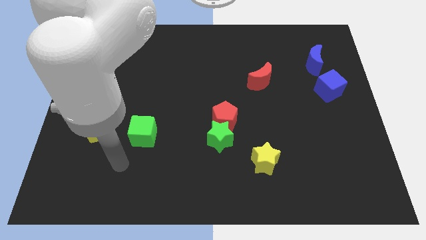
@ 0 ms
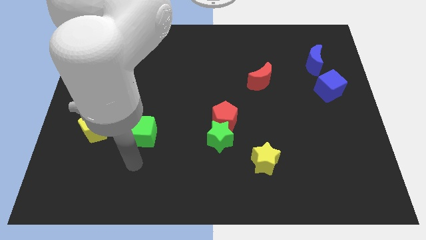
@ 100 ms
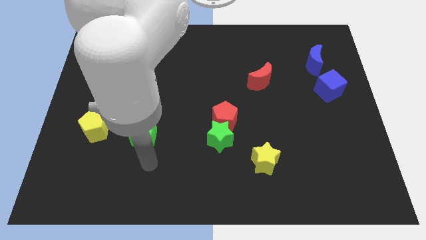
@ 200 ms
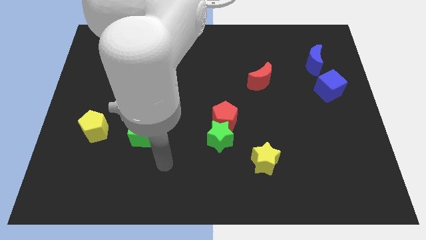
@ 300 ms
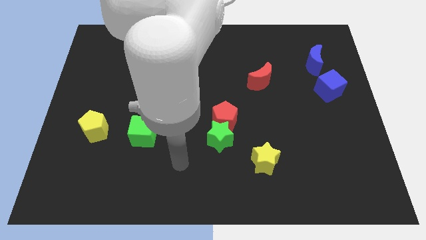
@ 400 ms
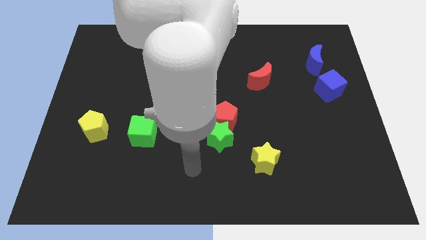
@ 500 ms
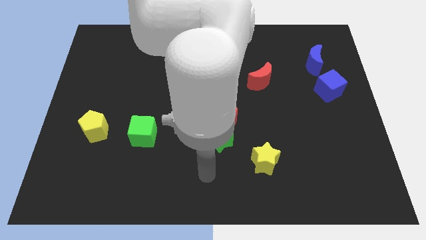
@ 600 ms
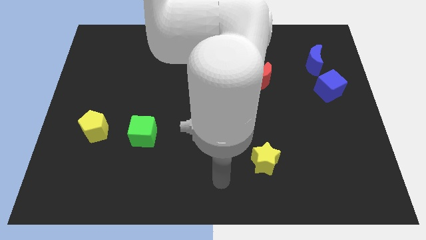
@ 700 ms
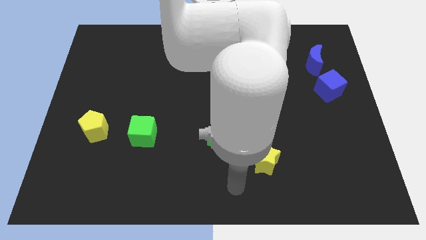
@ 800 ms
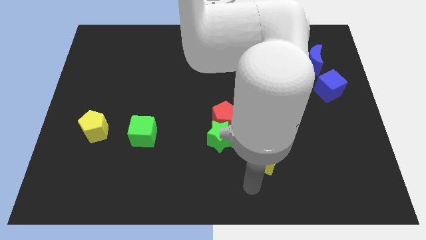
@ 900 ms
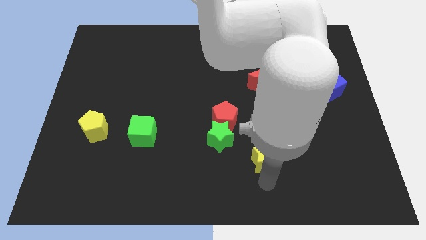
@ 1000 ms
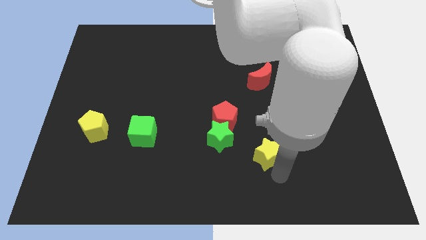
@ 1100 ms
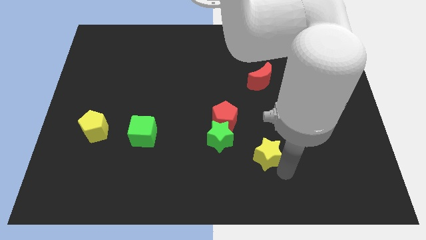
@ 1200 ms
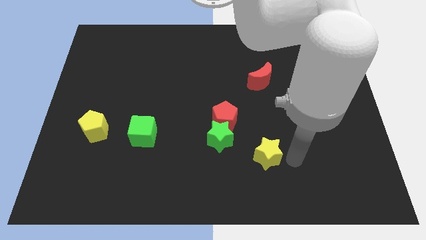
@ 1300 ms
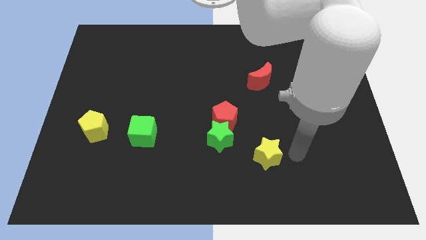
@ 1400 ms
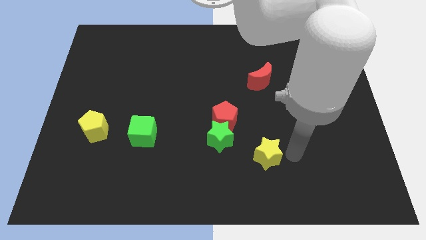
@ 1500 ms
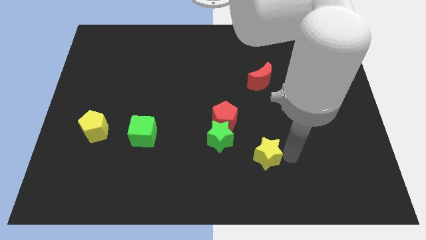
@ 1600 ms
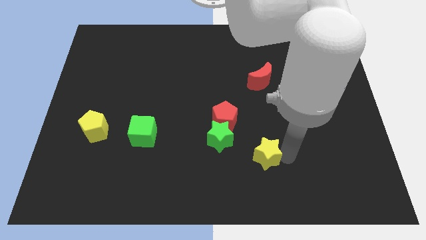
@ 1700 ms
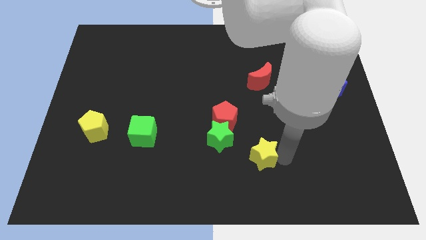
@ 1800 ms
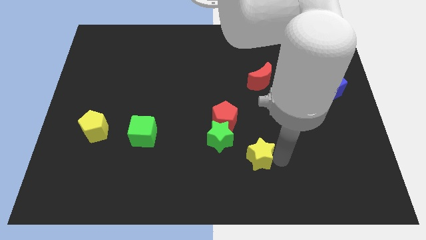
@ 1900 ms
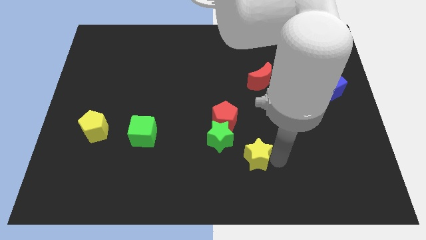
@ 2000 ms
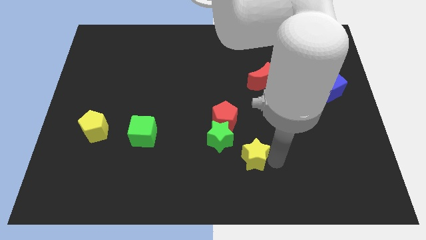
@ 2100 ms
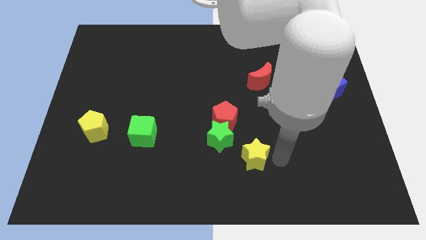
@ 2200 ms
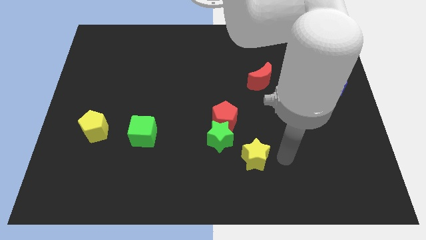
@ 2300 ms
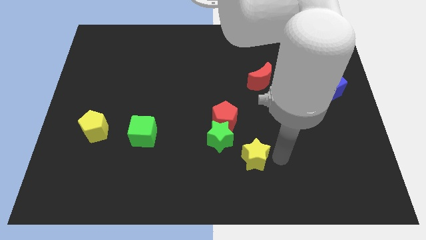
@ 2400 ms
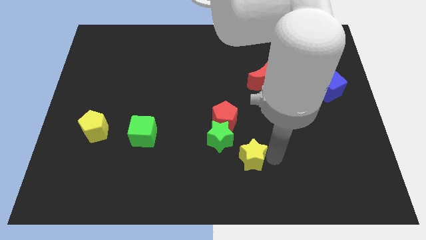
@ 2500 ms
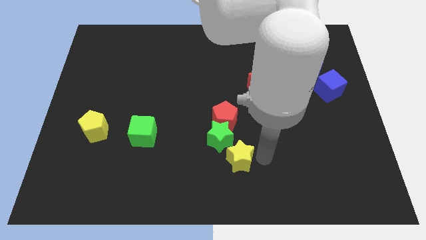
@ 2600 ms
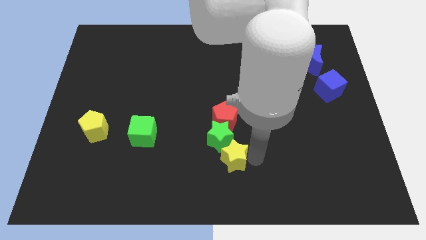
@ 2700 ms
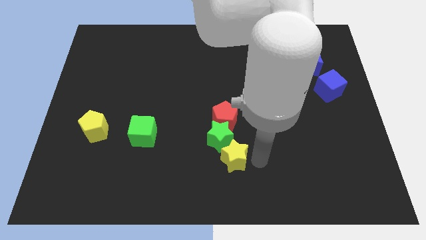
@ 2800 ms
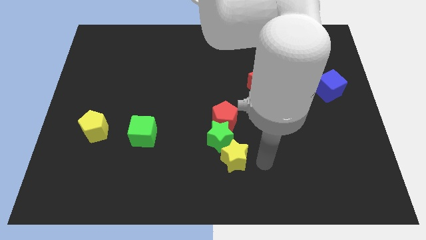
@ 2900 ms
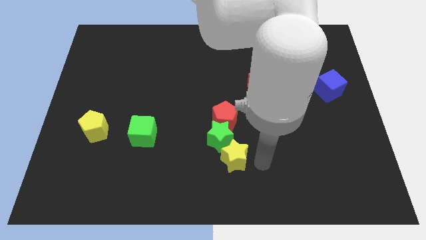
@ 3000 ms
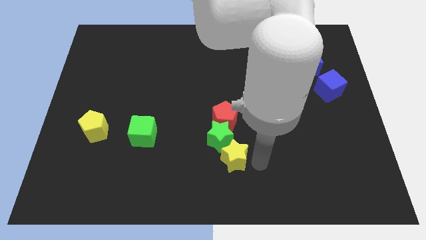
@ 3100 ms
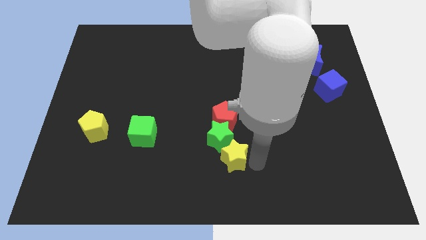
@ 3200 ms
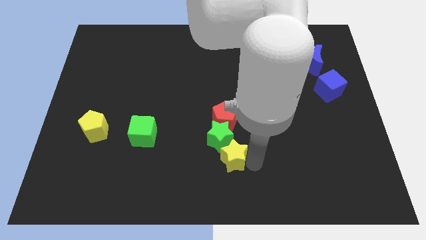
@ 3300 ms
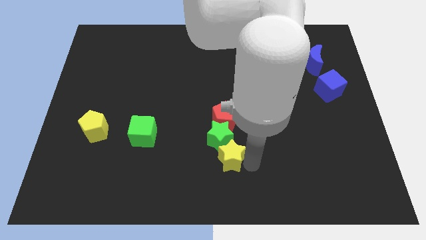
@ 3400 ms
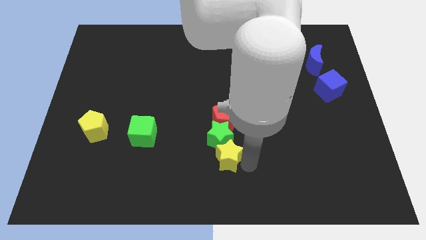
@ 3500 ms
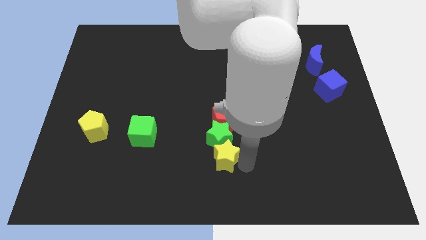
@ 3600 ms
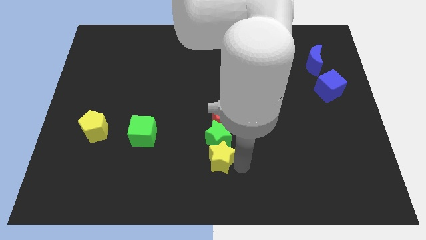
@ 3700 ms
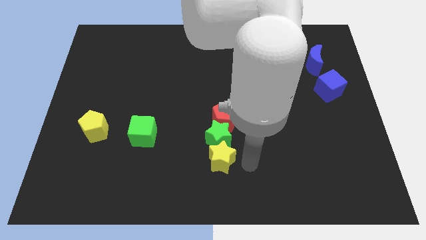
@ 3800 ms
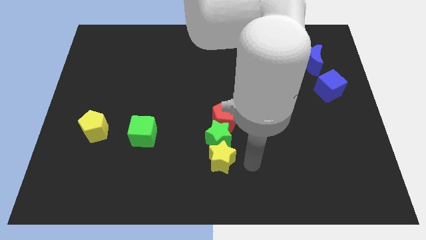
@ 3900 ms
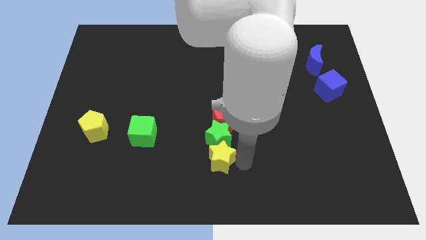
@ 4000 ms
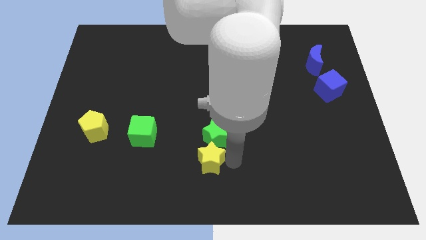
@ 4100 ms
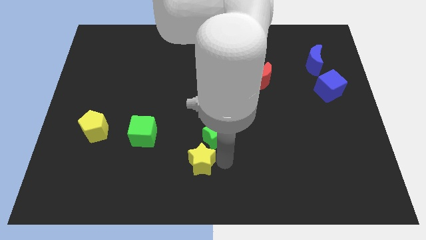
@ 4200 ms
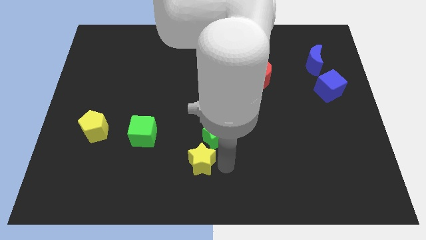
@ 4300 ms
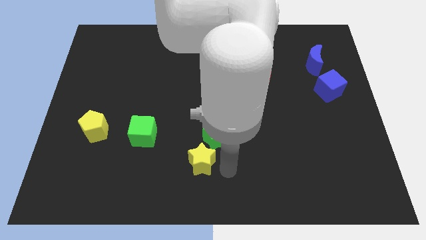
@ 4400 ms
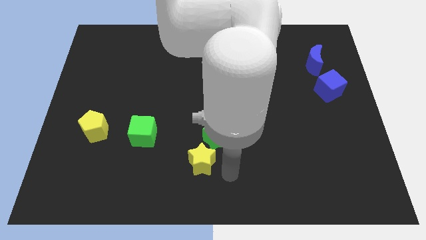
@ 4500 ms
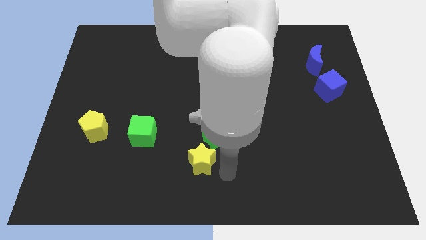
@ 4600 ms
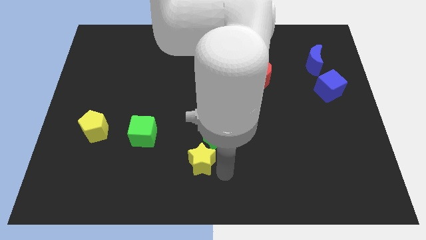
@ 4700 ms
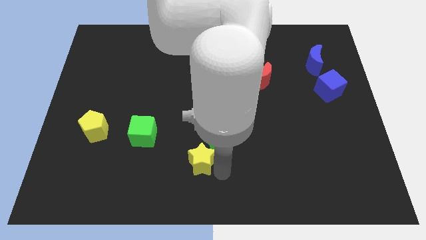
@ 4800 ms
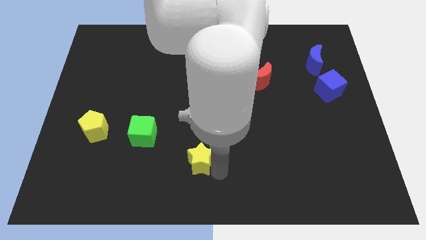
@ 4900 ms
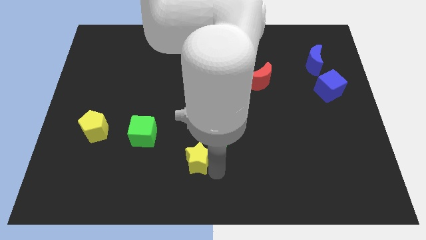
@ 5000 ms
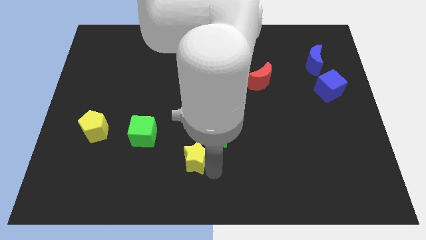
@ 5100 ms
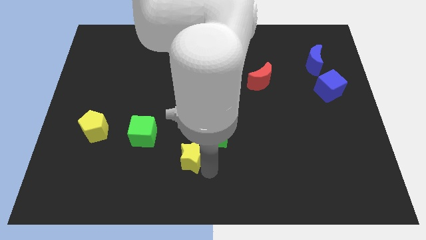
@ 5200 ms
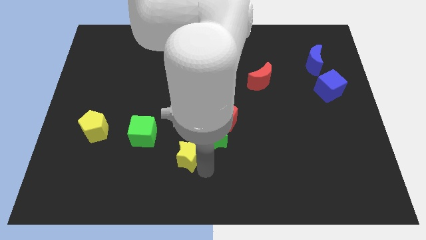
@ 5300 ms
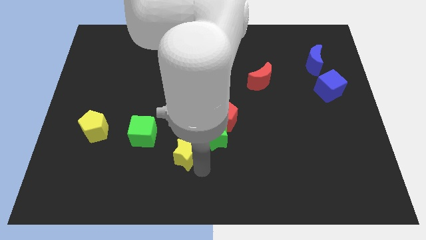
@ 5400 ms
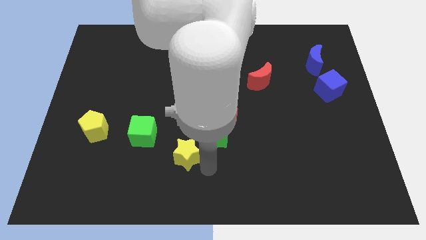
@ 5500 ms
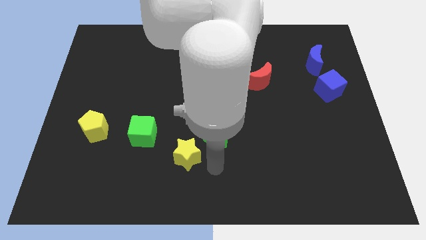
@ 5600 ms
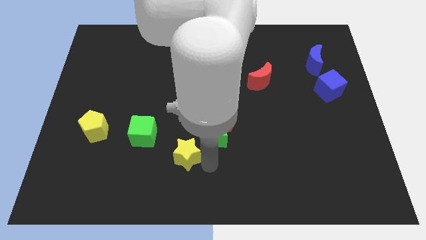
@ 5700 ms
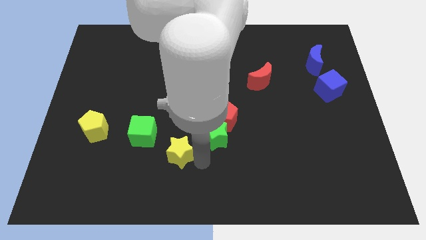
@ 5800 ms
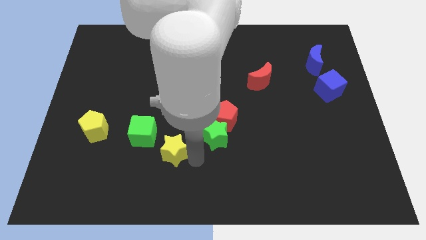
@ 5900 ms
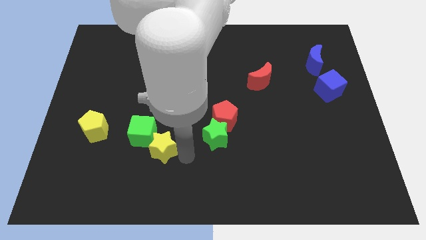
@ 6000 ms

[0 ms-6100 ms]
move the yellow star next to the green cube

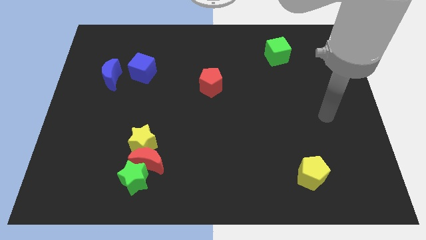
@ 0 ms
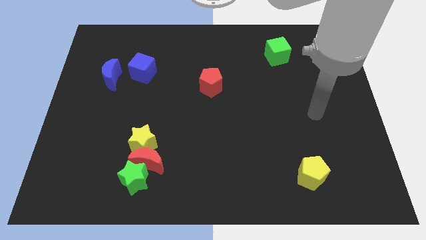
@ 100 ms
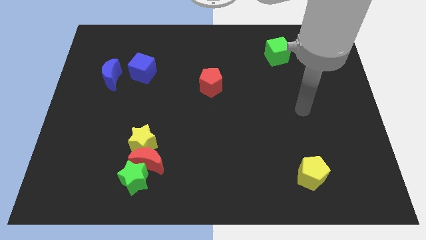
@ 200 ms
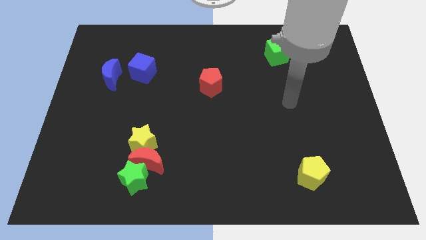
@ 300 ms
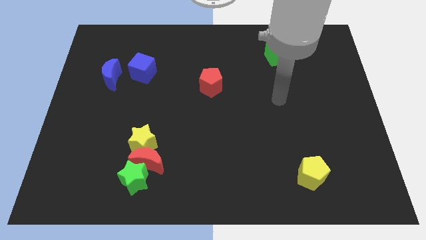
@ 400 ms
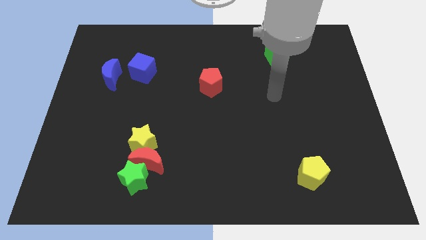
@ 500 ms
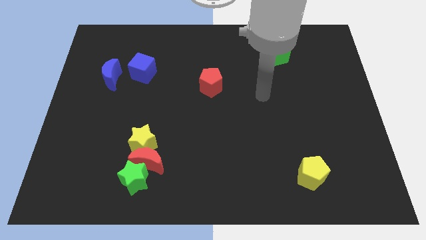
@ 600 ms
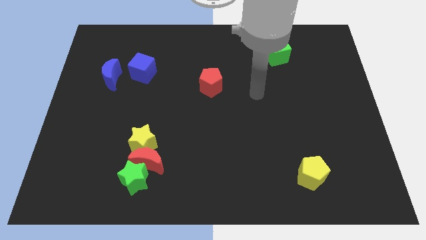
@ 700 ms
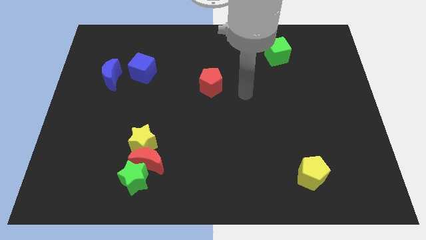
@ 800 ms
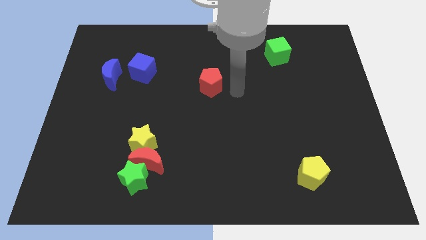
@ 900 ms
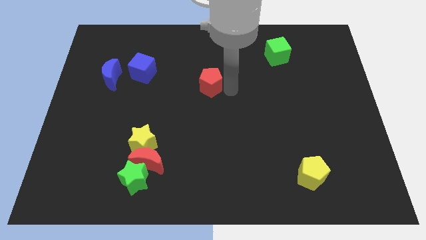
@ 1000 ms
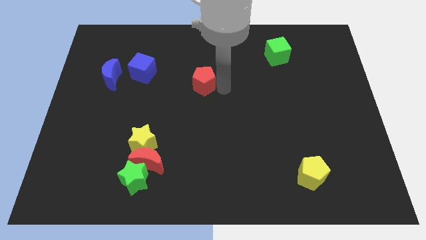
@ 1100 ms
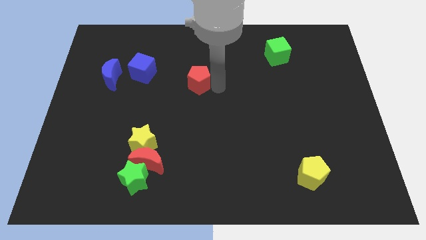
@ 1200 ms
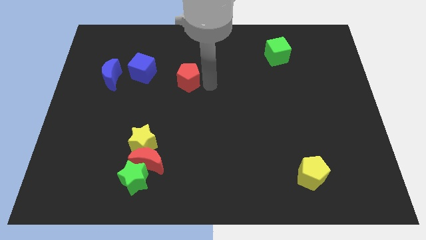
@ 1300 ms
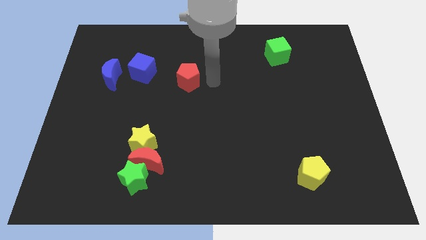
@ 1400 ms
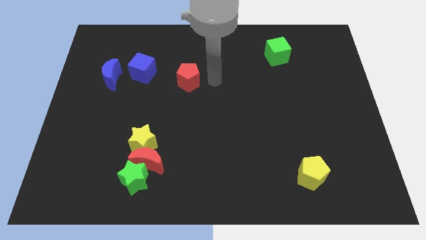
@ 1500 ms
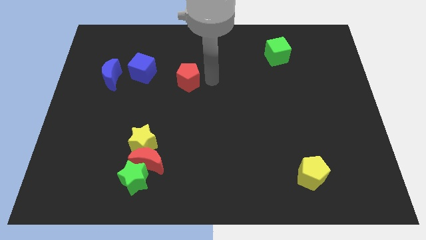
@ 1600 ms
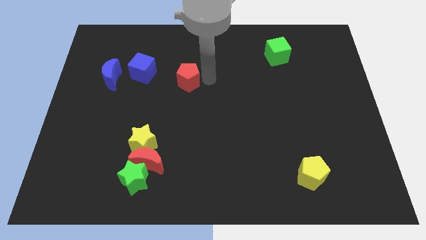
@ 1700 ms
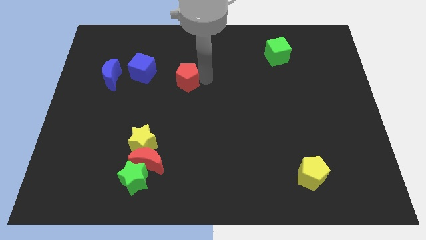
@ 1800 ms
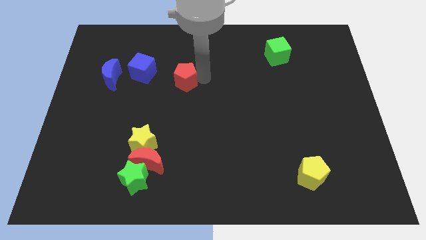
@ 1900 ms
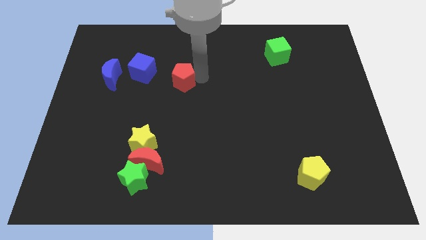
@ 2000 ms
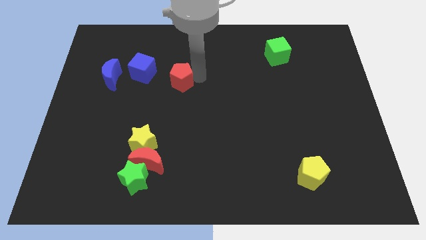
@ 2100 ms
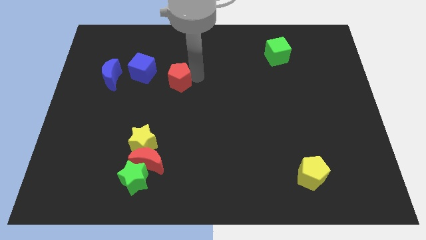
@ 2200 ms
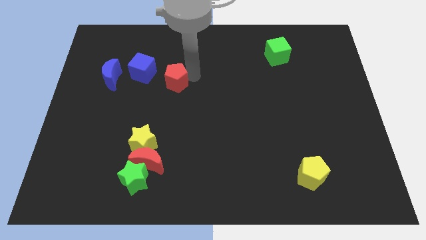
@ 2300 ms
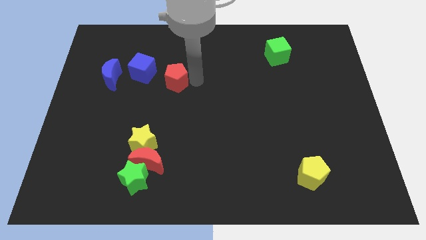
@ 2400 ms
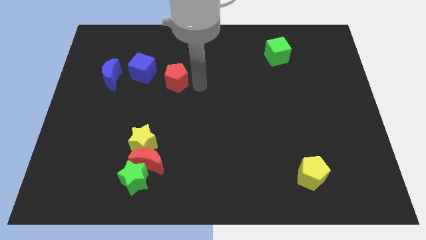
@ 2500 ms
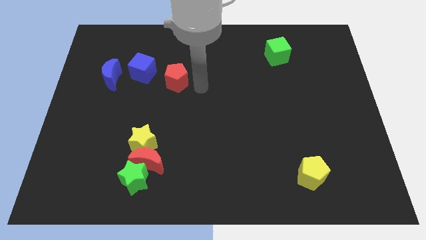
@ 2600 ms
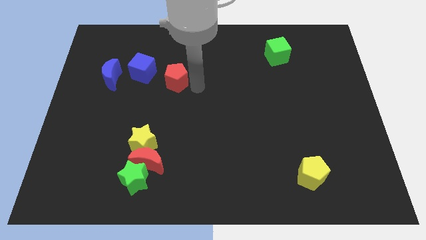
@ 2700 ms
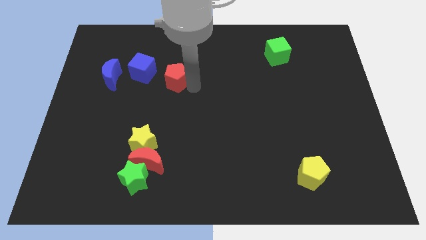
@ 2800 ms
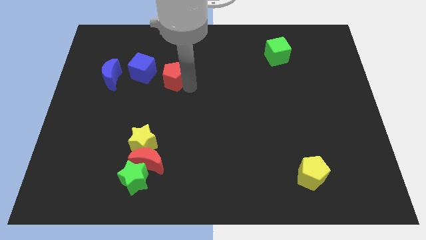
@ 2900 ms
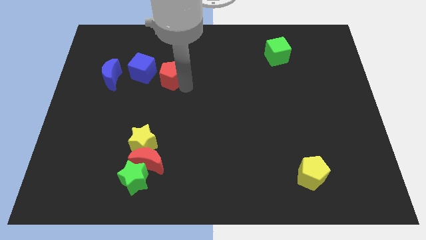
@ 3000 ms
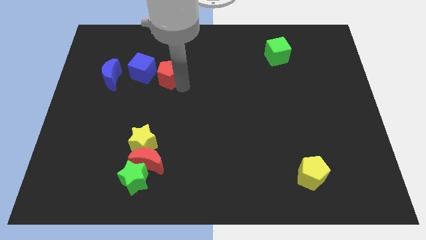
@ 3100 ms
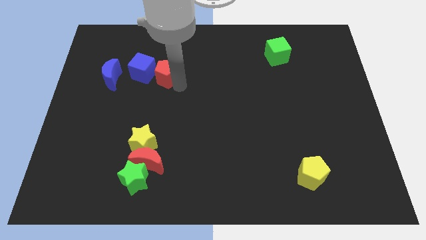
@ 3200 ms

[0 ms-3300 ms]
move the red pentagon to the blue cube
